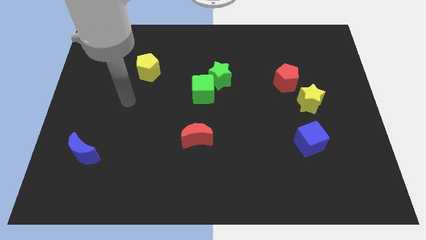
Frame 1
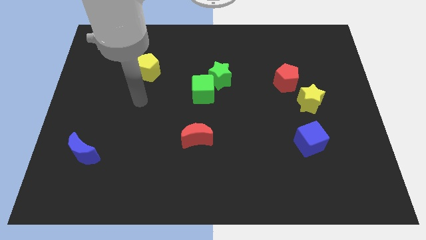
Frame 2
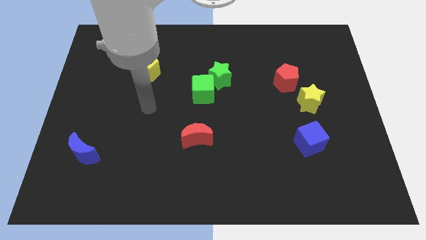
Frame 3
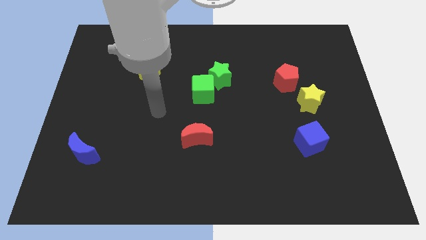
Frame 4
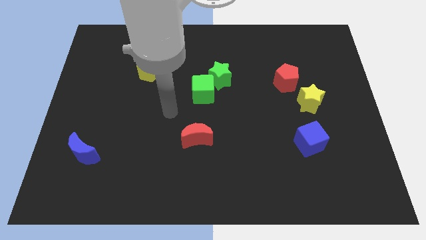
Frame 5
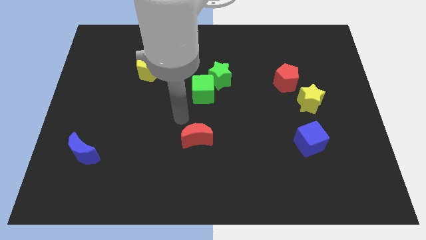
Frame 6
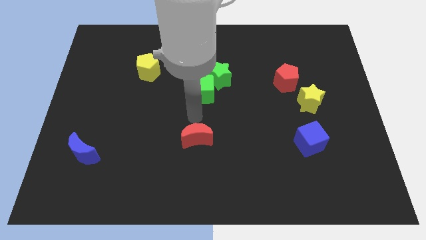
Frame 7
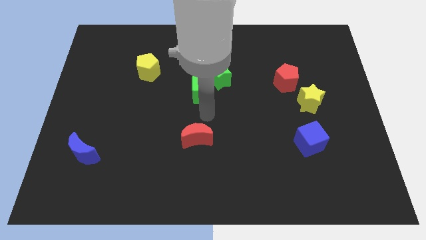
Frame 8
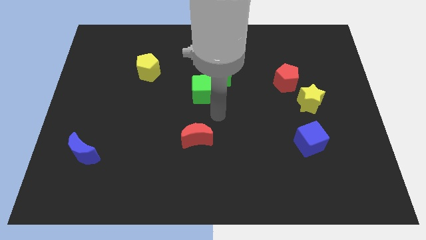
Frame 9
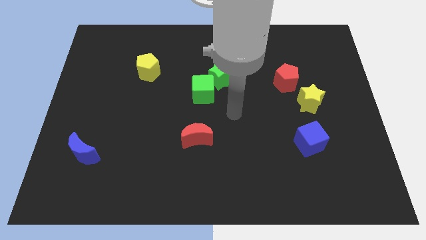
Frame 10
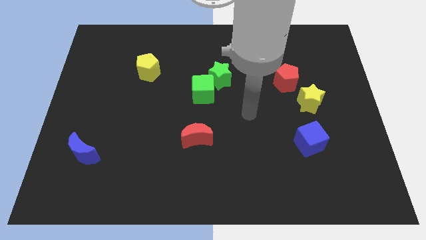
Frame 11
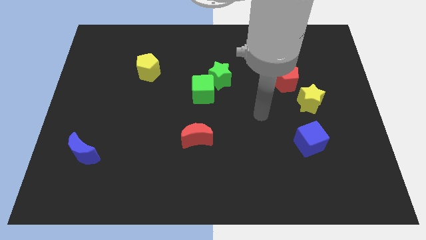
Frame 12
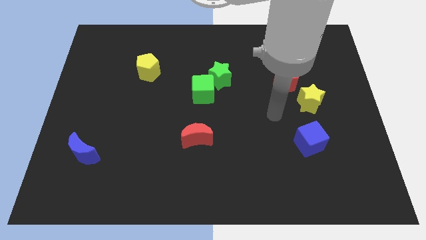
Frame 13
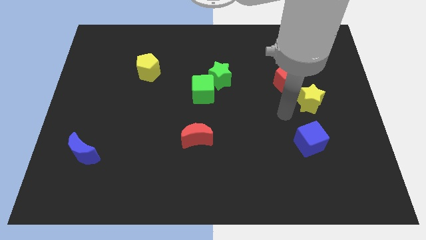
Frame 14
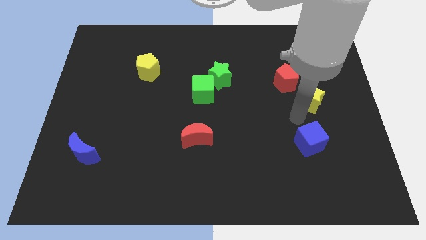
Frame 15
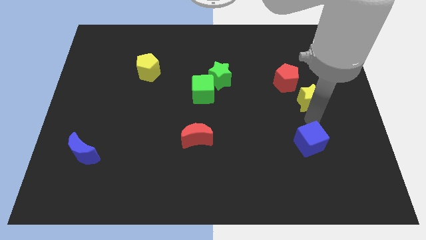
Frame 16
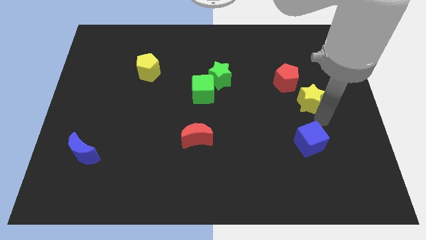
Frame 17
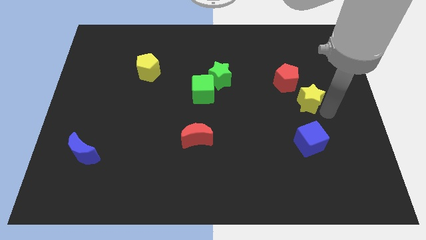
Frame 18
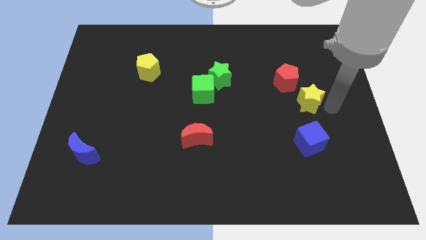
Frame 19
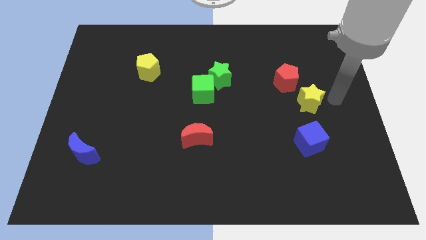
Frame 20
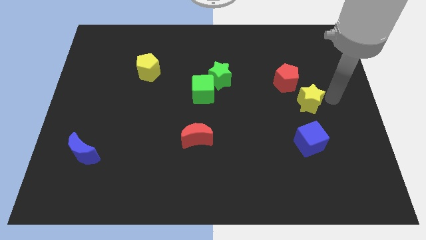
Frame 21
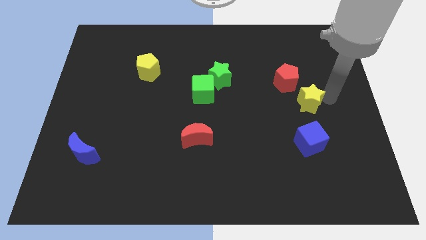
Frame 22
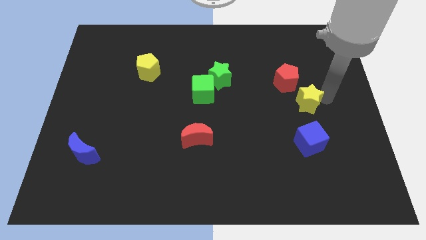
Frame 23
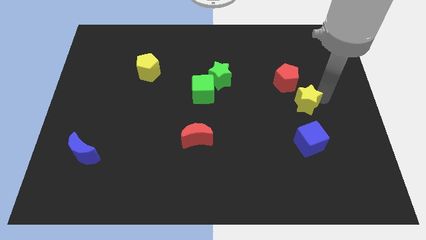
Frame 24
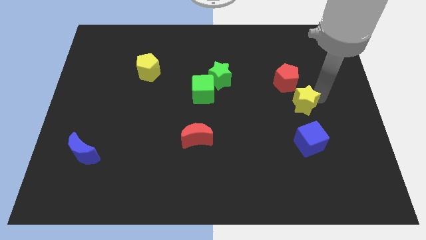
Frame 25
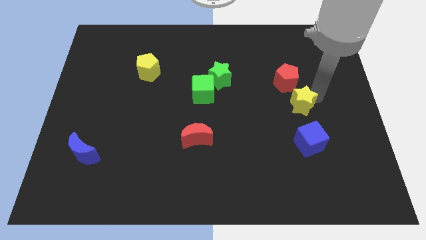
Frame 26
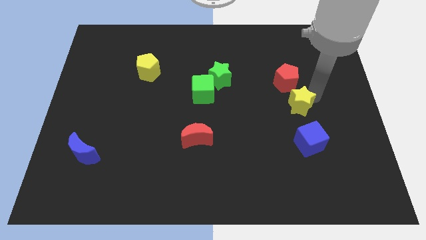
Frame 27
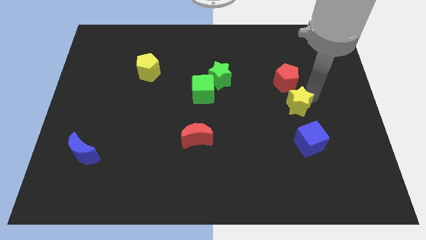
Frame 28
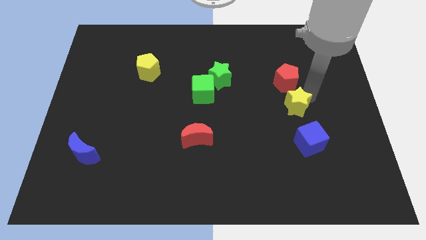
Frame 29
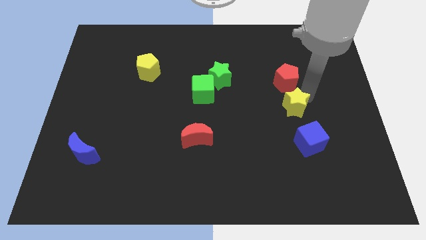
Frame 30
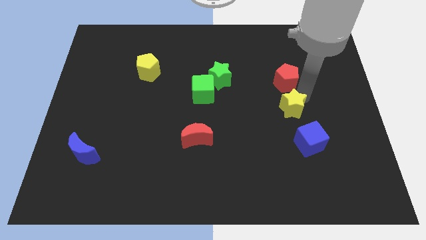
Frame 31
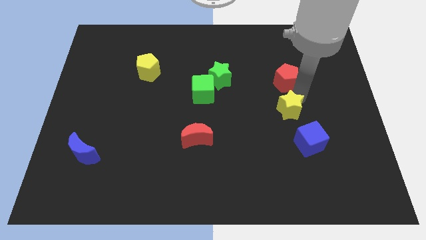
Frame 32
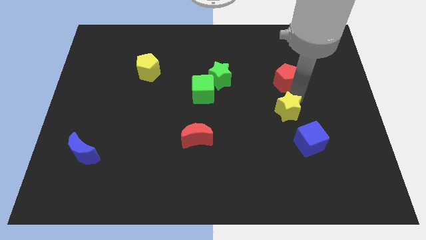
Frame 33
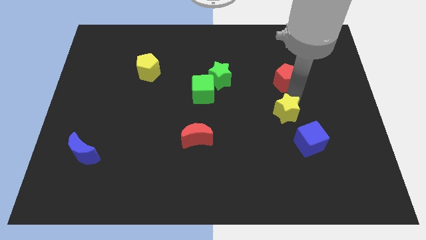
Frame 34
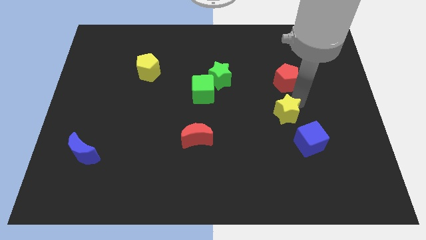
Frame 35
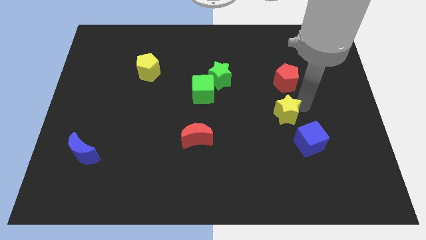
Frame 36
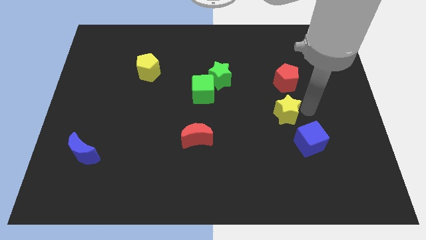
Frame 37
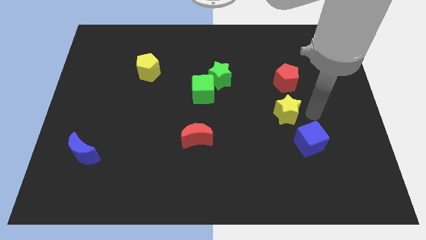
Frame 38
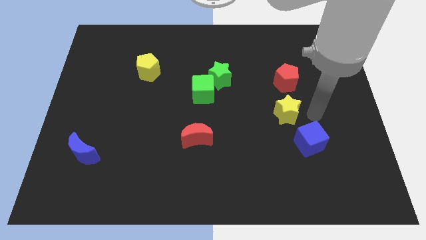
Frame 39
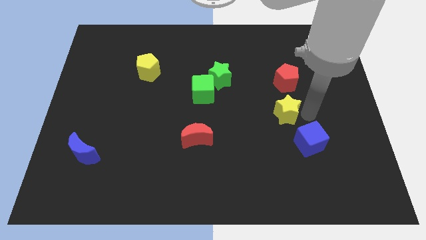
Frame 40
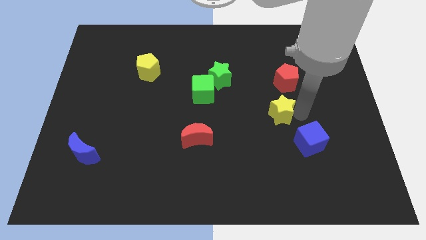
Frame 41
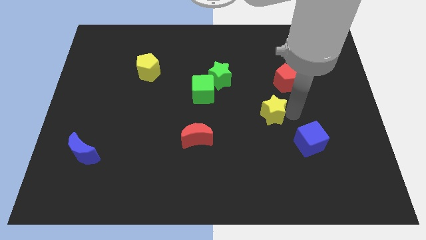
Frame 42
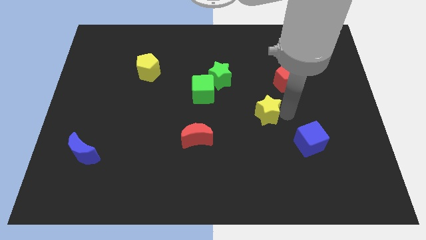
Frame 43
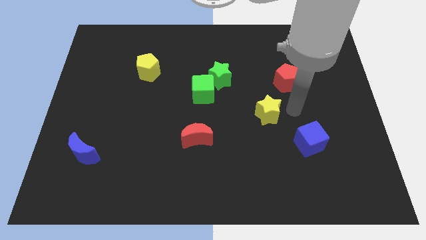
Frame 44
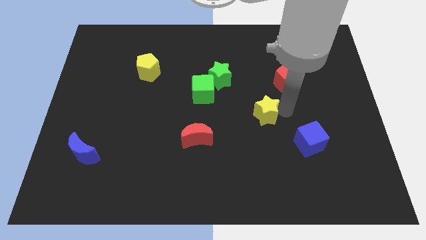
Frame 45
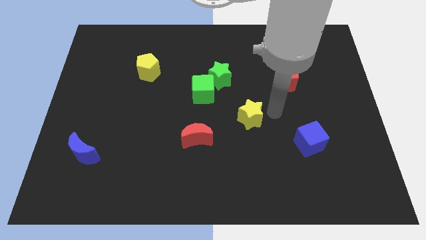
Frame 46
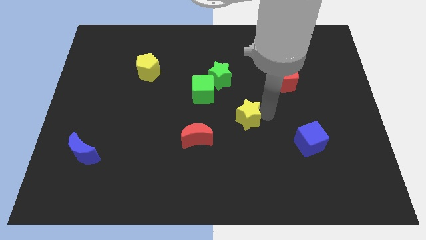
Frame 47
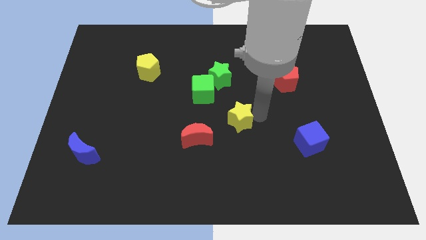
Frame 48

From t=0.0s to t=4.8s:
put the yellow star to the top right of the red moon

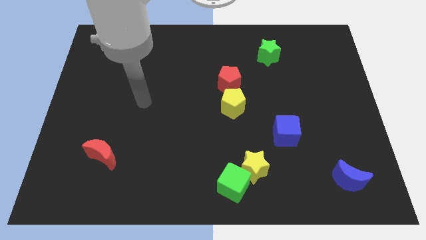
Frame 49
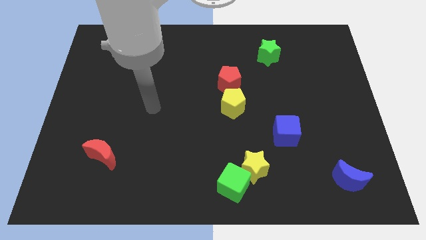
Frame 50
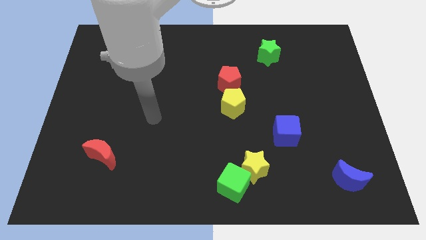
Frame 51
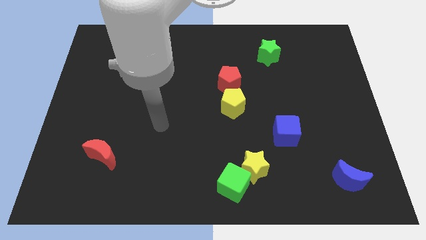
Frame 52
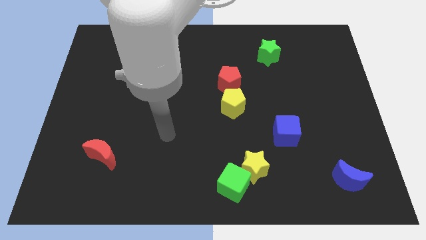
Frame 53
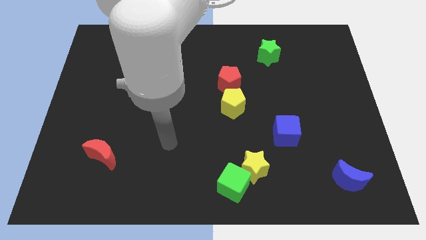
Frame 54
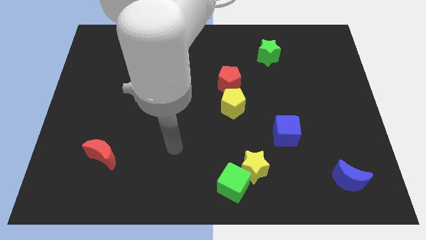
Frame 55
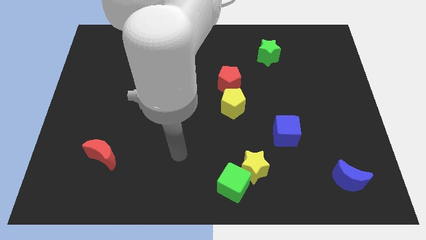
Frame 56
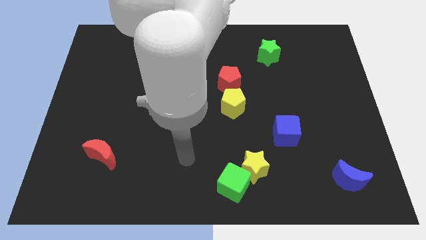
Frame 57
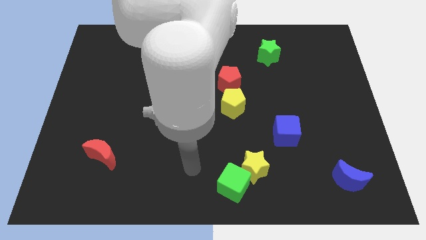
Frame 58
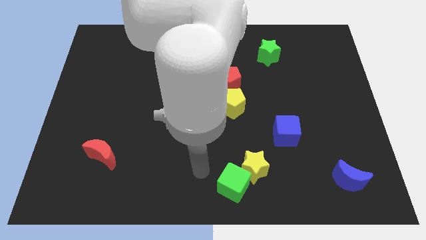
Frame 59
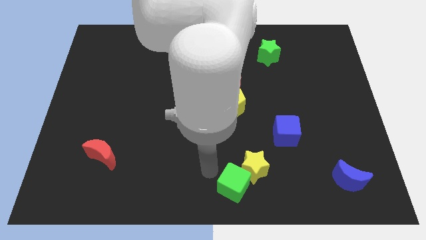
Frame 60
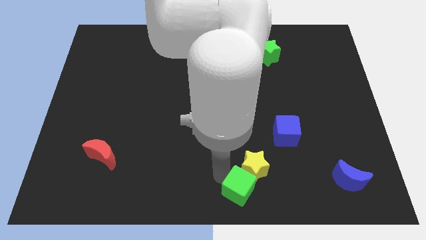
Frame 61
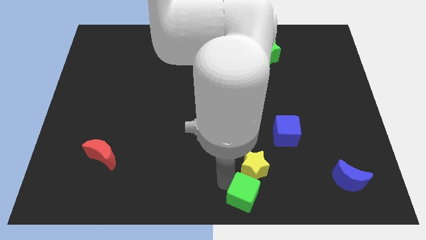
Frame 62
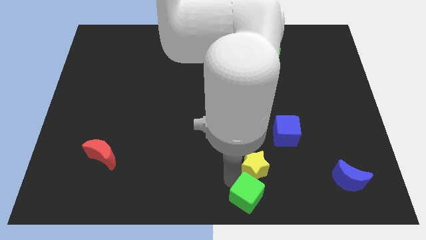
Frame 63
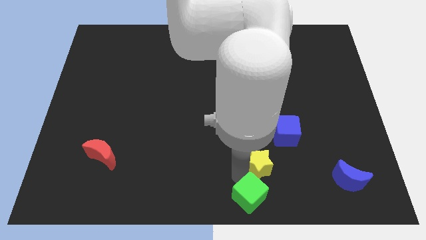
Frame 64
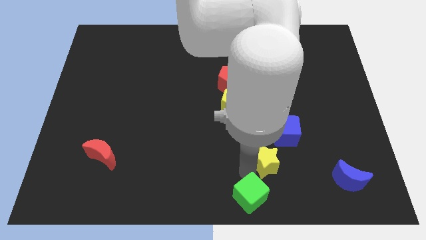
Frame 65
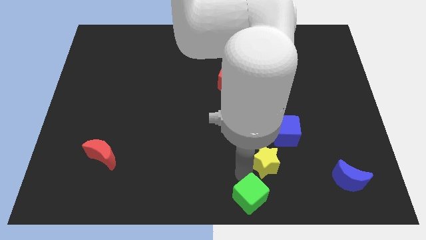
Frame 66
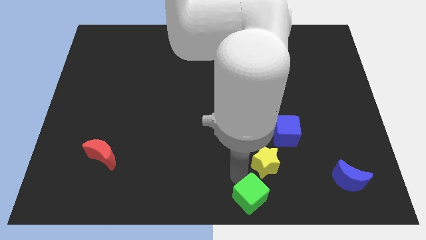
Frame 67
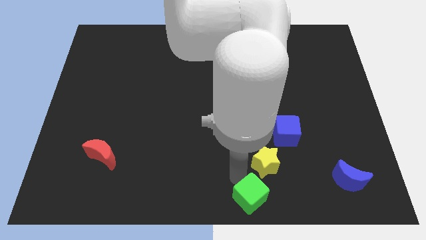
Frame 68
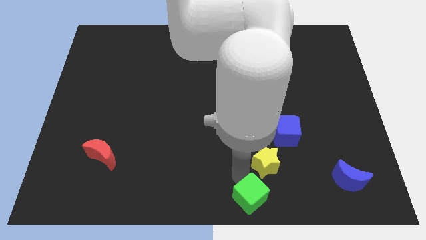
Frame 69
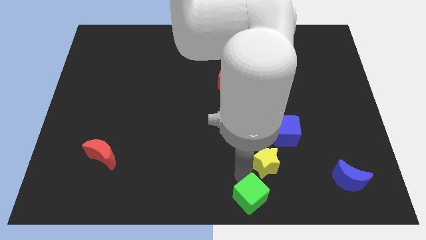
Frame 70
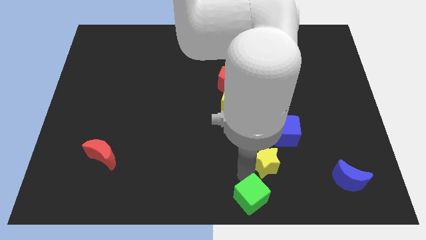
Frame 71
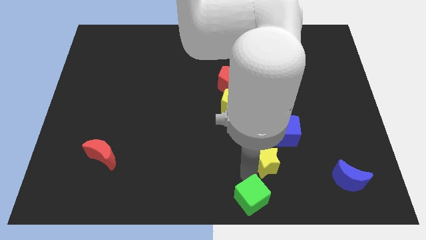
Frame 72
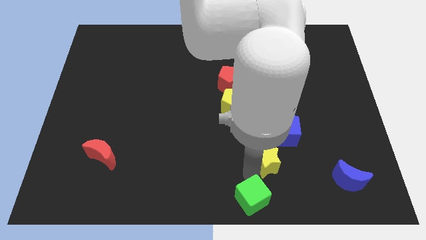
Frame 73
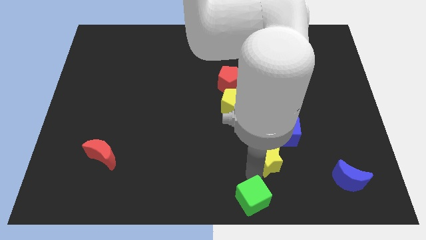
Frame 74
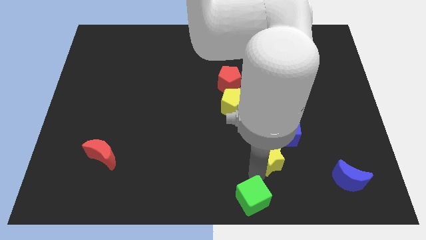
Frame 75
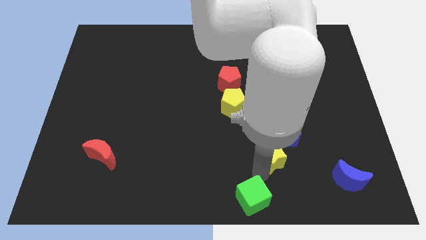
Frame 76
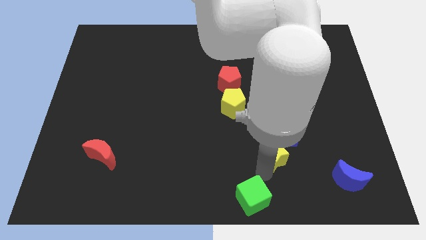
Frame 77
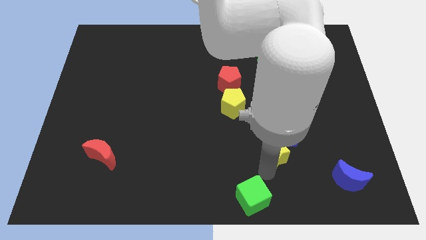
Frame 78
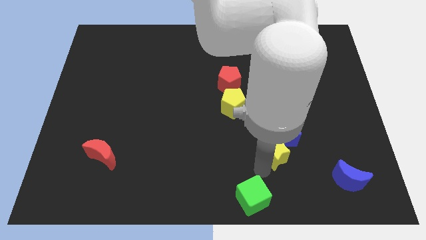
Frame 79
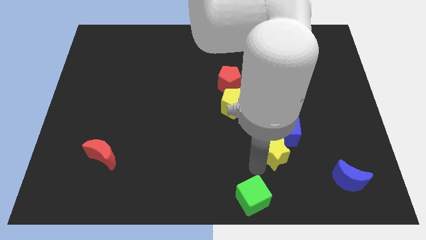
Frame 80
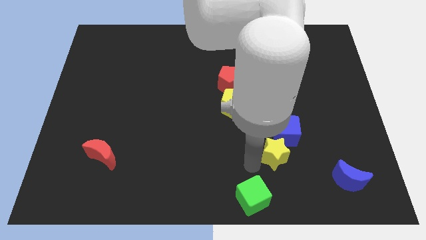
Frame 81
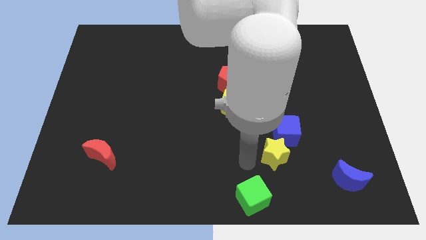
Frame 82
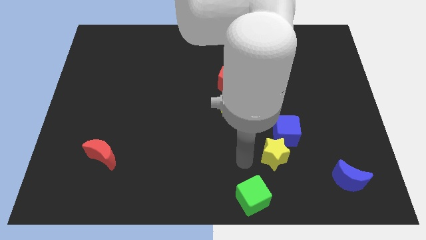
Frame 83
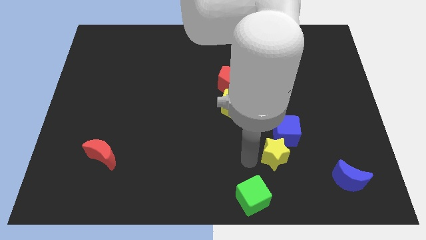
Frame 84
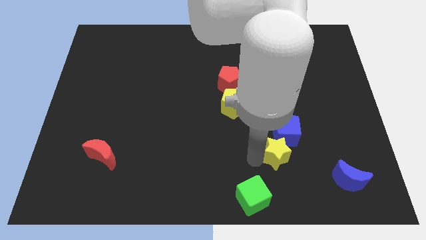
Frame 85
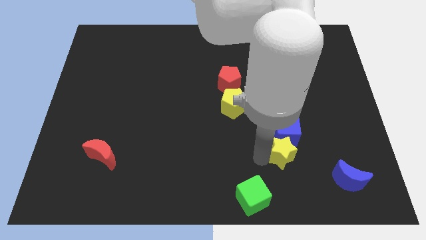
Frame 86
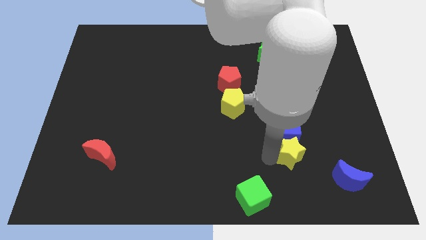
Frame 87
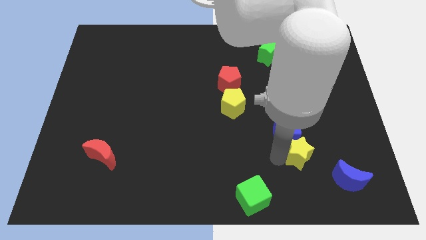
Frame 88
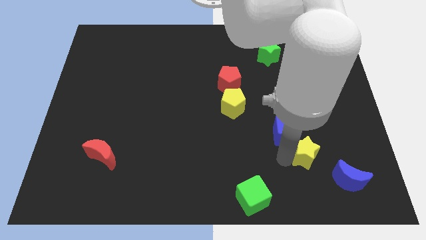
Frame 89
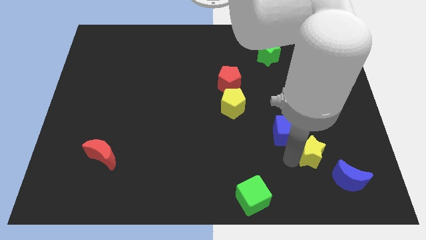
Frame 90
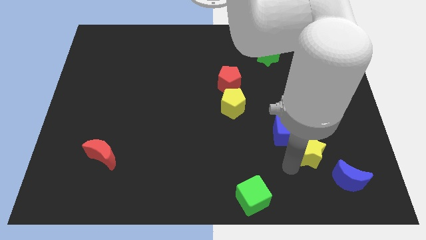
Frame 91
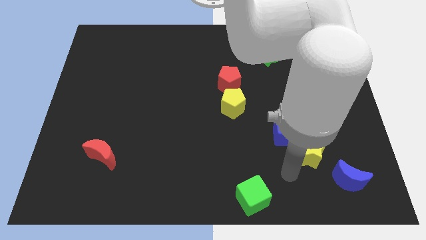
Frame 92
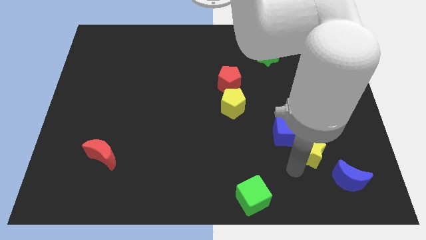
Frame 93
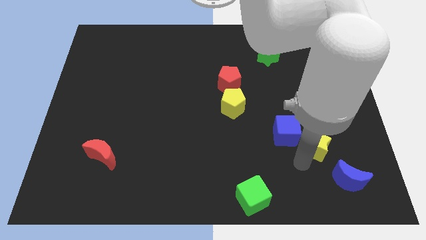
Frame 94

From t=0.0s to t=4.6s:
move the yellow star just right of the blue cube
